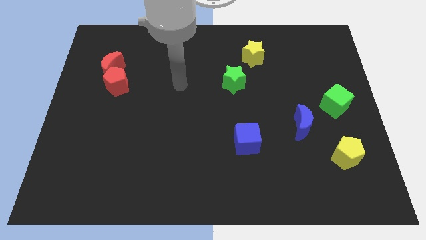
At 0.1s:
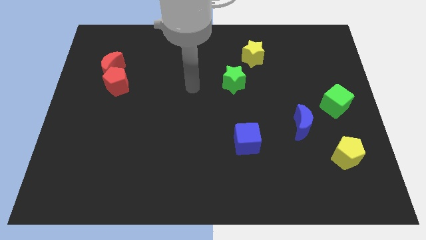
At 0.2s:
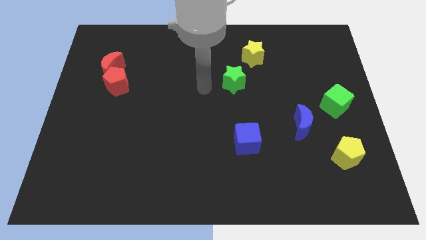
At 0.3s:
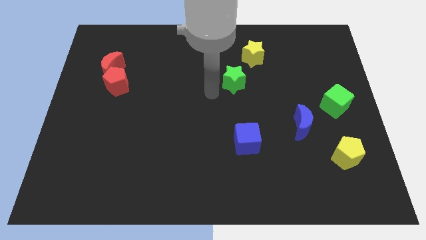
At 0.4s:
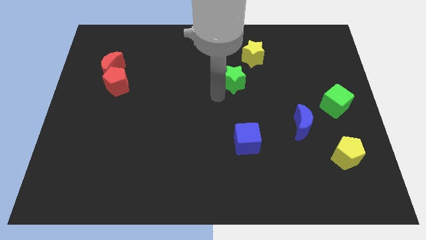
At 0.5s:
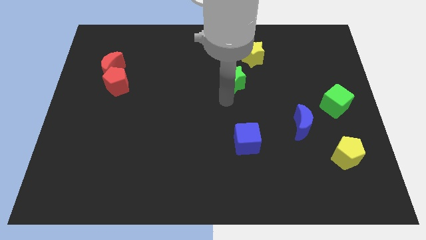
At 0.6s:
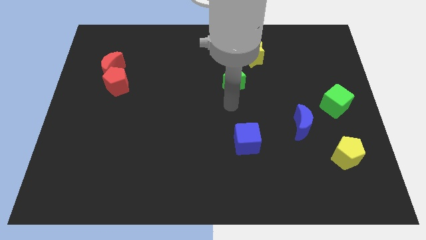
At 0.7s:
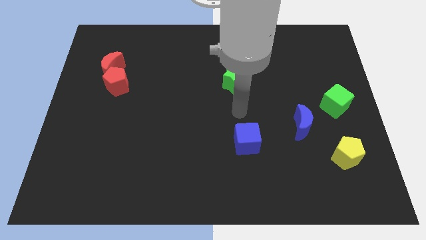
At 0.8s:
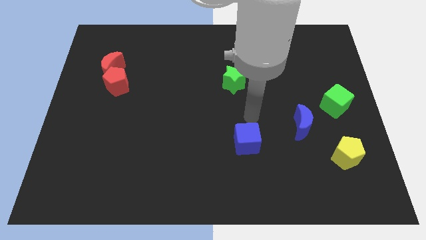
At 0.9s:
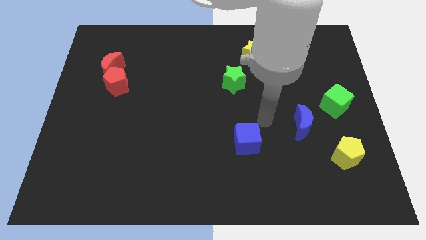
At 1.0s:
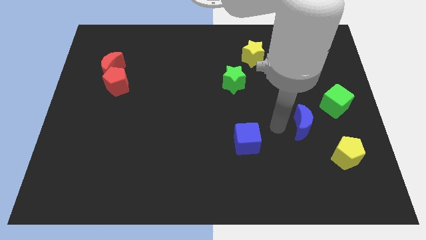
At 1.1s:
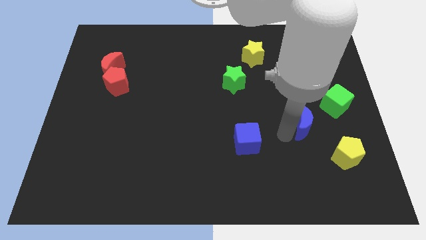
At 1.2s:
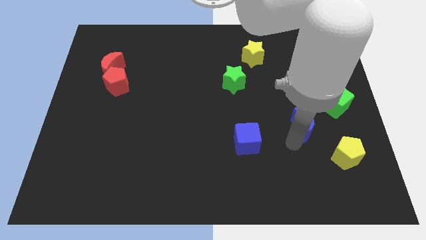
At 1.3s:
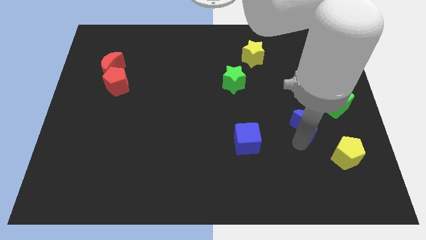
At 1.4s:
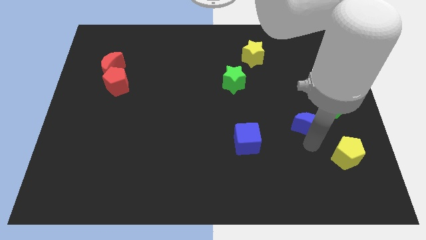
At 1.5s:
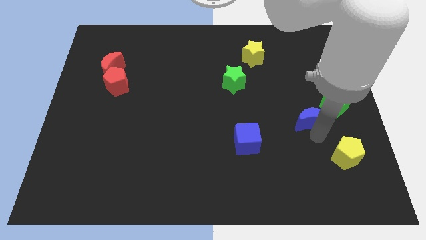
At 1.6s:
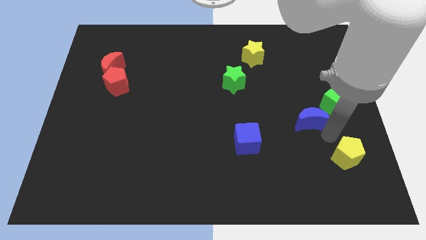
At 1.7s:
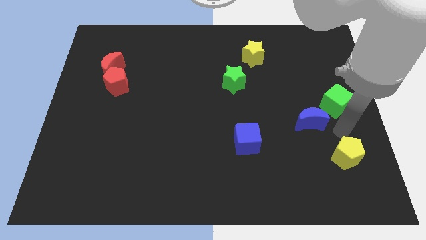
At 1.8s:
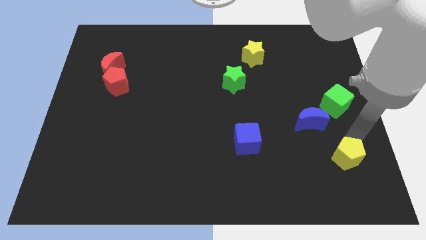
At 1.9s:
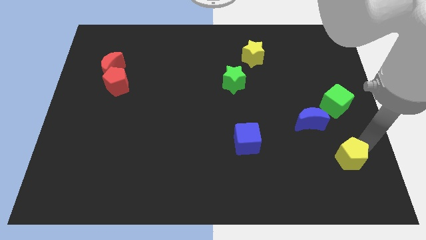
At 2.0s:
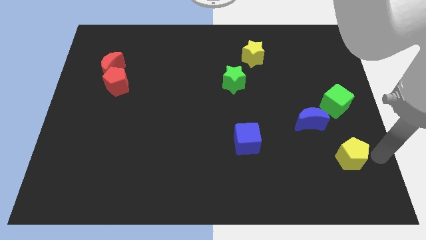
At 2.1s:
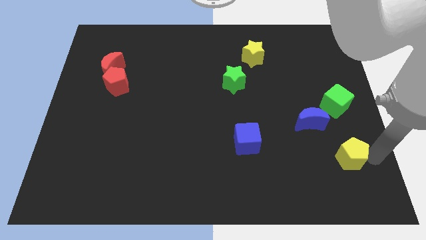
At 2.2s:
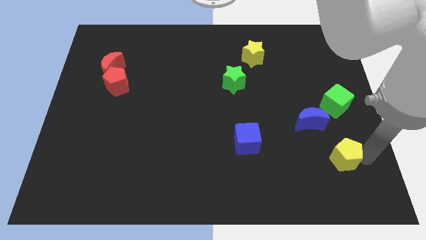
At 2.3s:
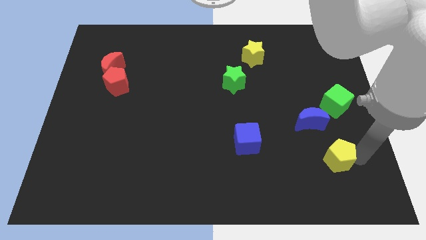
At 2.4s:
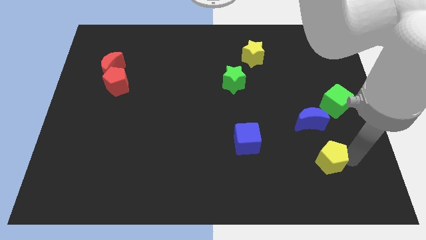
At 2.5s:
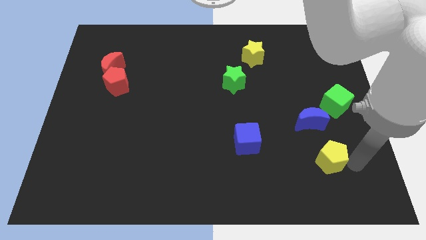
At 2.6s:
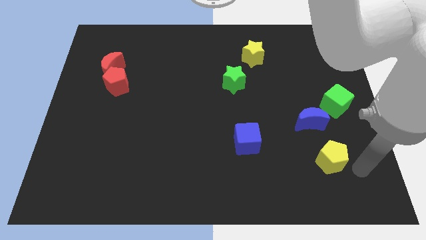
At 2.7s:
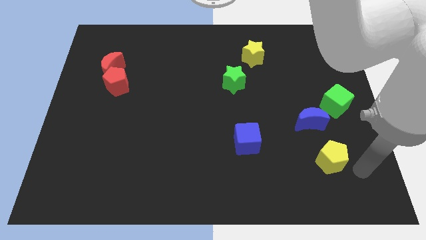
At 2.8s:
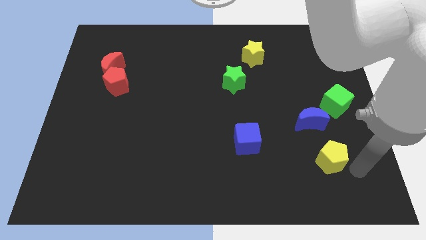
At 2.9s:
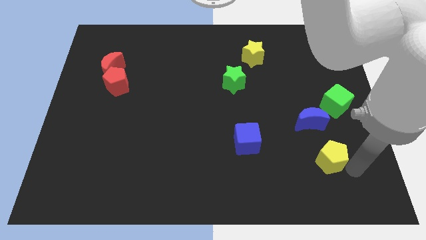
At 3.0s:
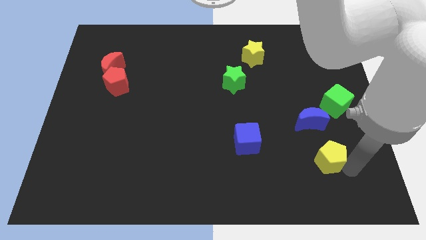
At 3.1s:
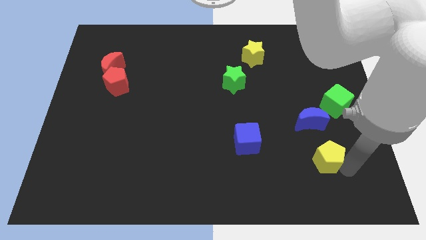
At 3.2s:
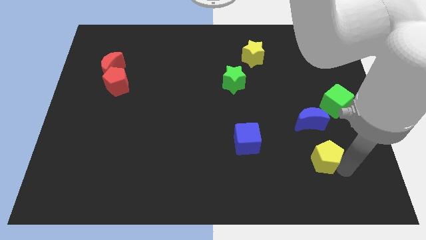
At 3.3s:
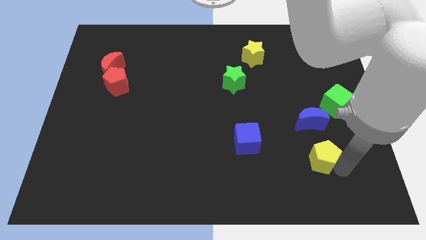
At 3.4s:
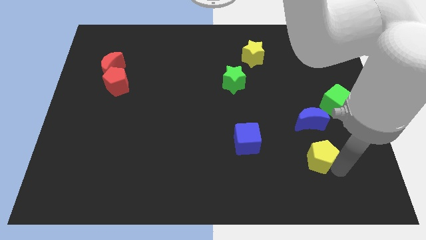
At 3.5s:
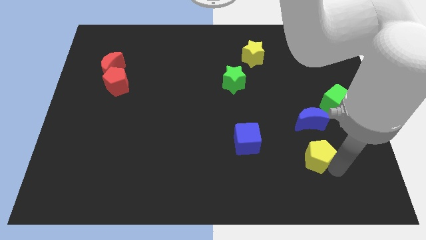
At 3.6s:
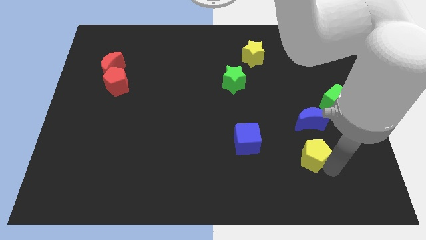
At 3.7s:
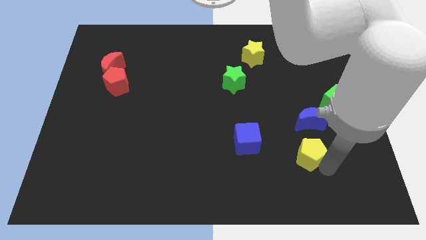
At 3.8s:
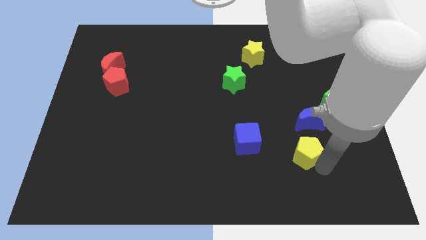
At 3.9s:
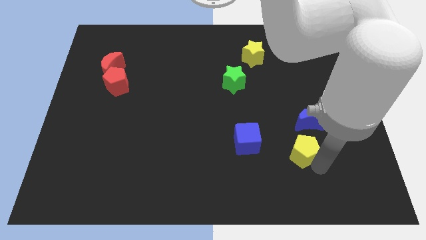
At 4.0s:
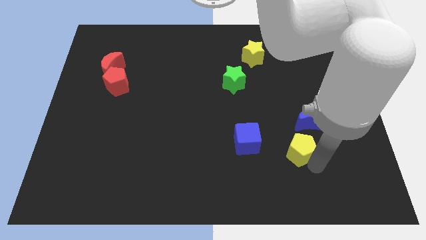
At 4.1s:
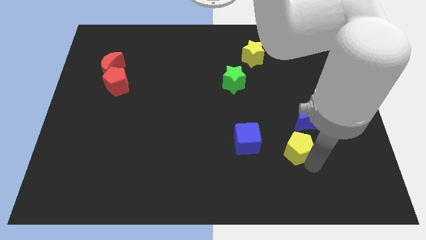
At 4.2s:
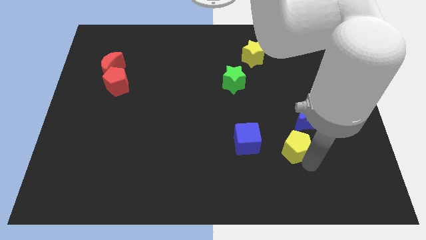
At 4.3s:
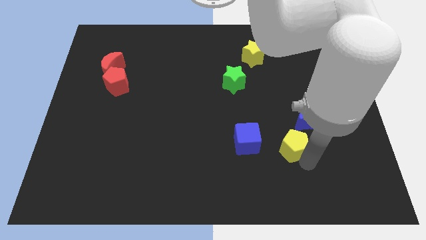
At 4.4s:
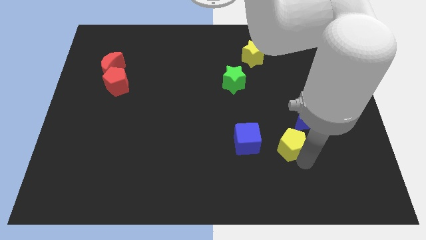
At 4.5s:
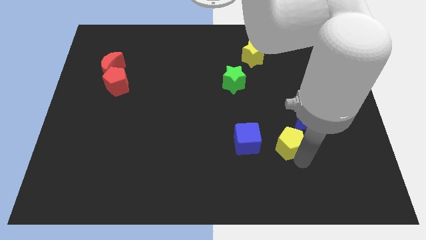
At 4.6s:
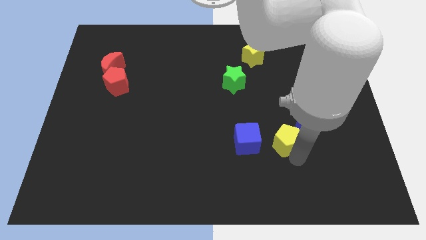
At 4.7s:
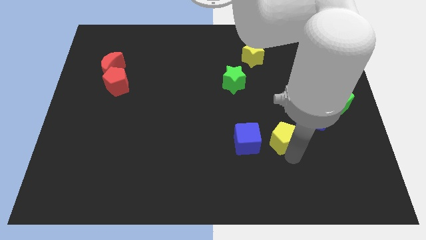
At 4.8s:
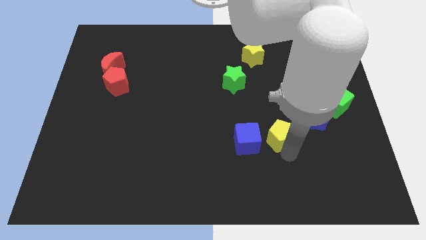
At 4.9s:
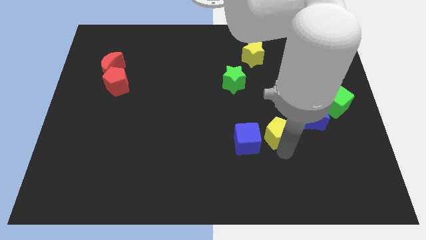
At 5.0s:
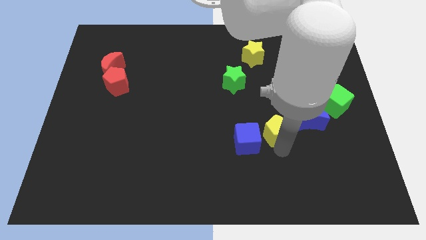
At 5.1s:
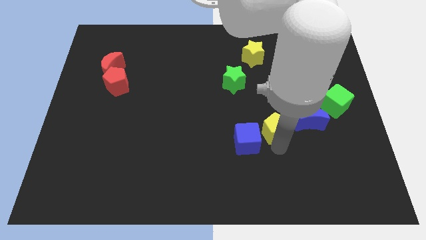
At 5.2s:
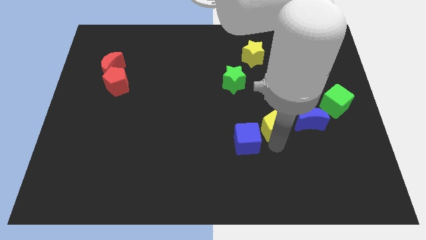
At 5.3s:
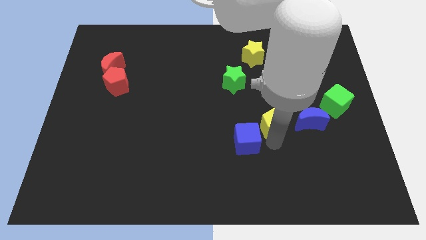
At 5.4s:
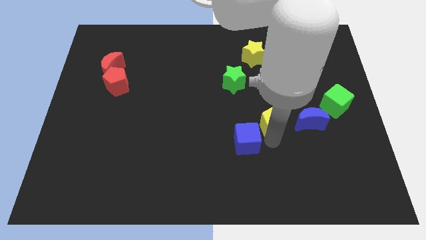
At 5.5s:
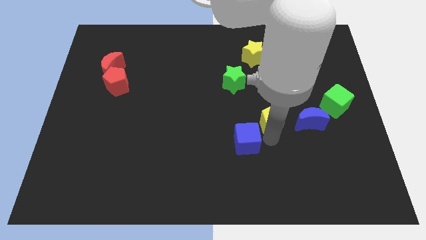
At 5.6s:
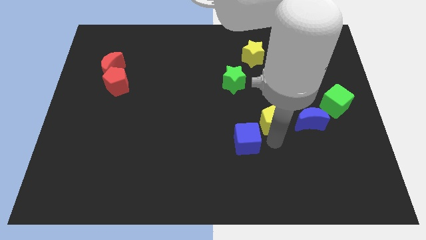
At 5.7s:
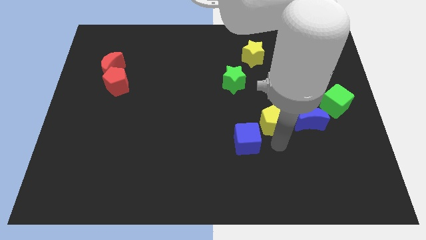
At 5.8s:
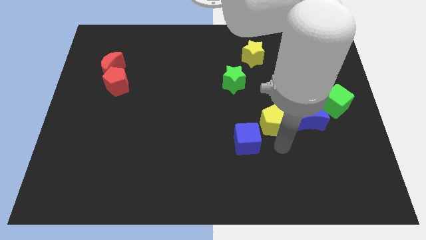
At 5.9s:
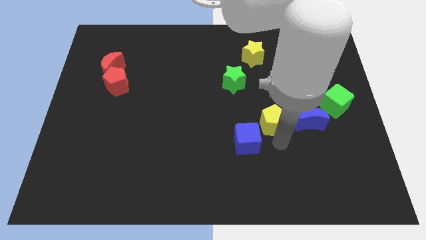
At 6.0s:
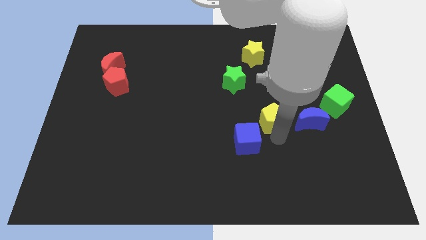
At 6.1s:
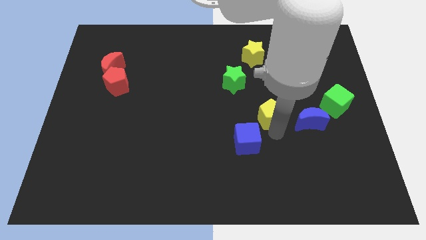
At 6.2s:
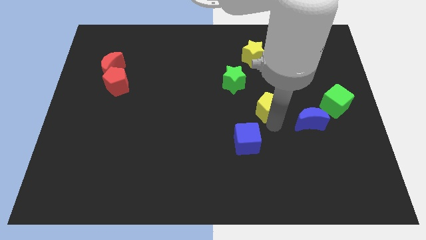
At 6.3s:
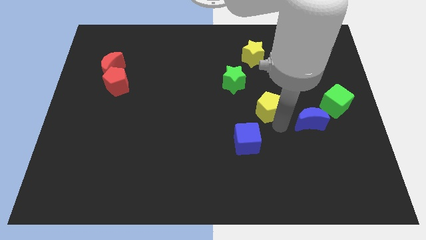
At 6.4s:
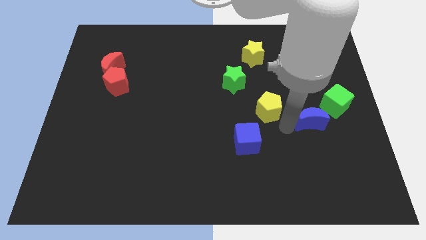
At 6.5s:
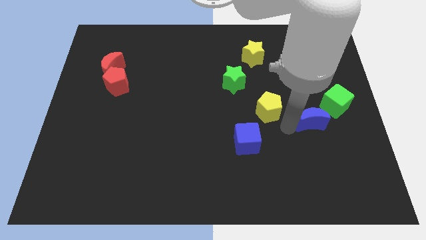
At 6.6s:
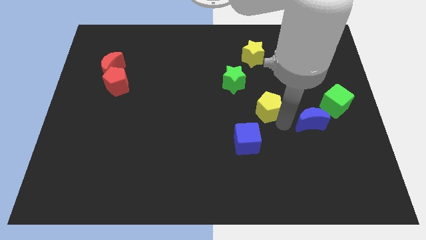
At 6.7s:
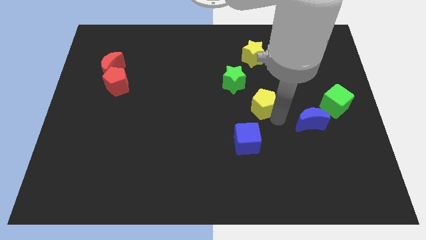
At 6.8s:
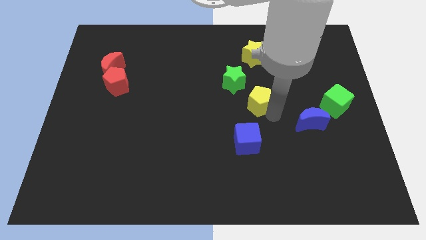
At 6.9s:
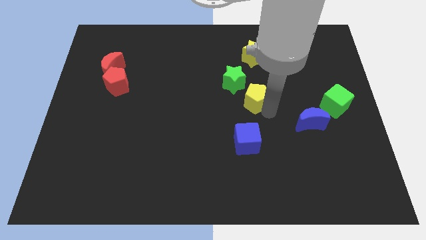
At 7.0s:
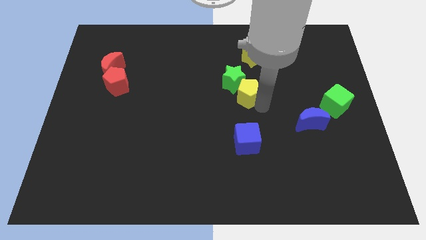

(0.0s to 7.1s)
move the yellow pentagon towards the green star

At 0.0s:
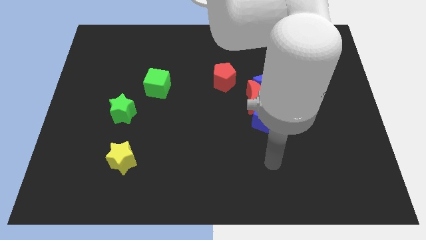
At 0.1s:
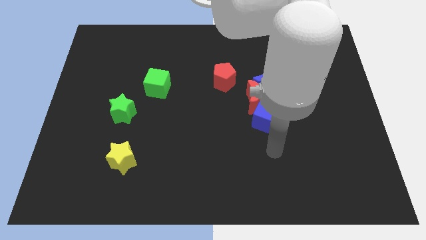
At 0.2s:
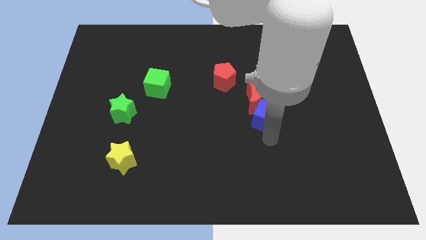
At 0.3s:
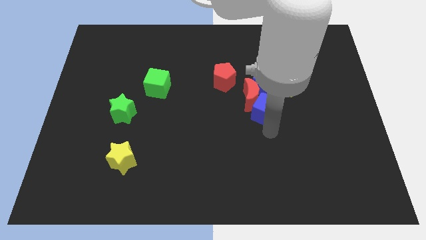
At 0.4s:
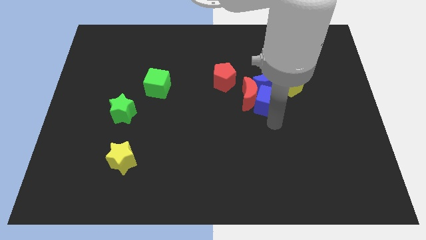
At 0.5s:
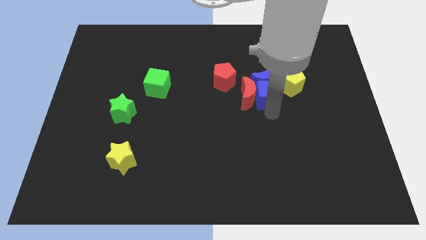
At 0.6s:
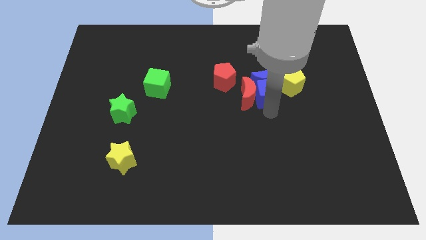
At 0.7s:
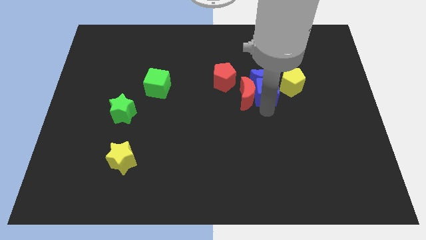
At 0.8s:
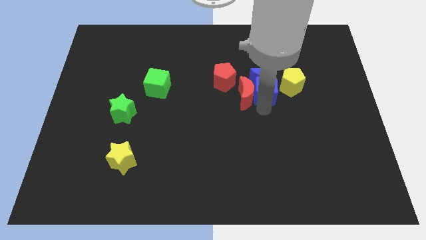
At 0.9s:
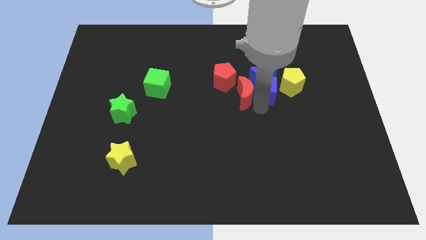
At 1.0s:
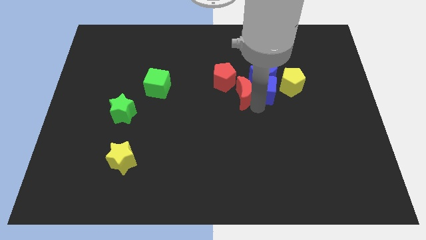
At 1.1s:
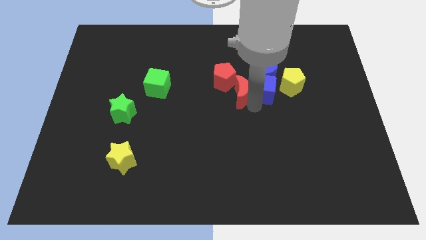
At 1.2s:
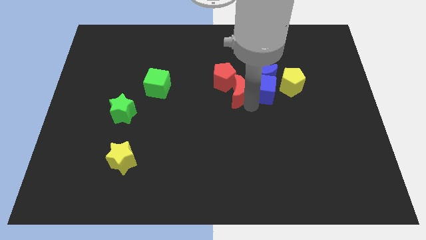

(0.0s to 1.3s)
slide the red moon next to the red pentagon
